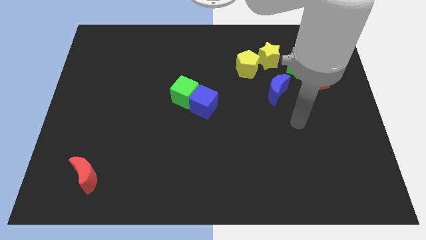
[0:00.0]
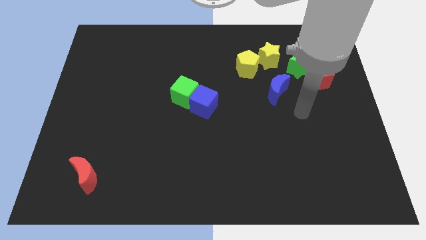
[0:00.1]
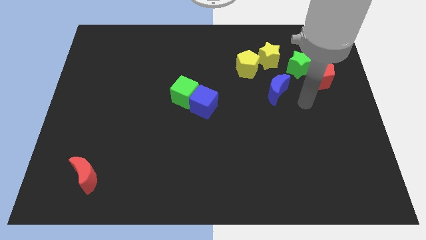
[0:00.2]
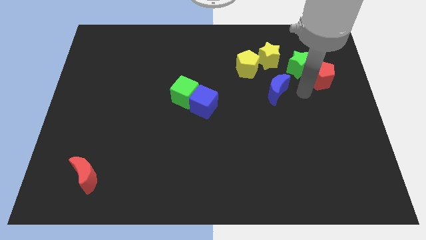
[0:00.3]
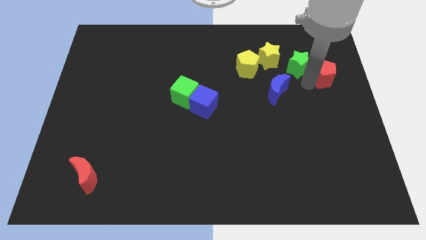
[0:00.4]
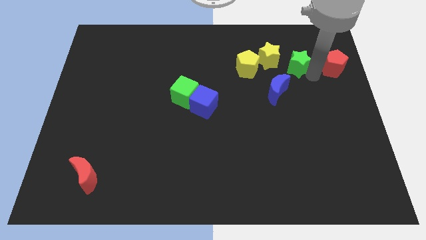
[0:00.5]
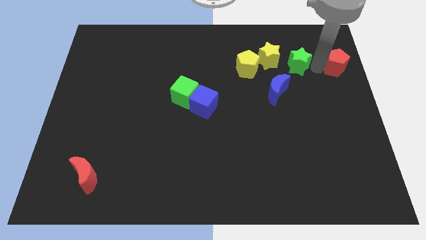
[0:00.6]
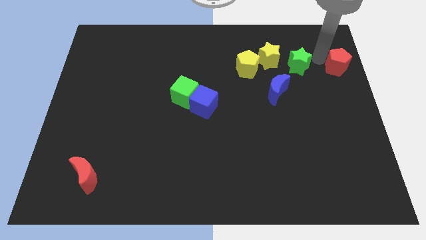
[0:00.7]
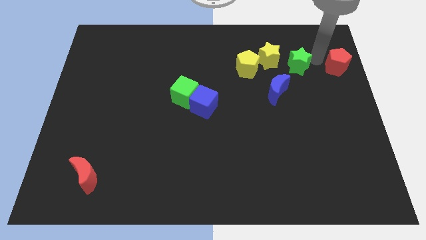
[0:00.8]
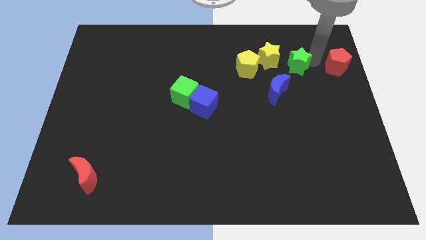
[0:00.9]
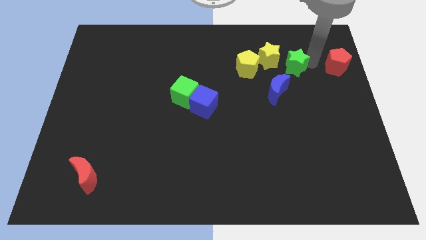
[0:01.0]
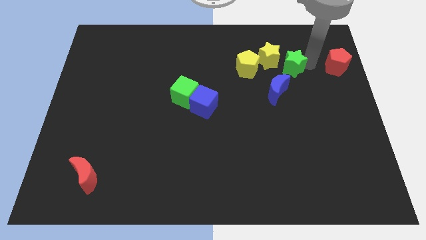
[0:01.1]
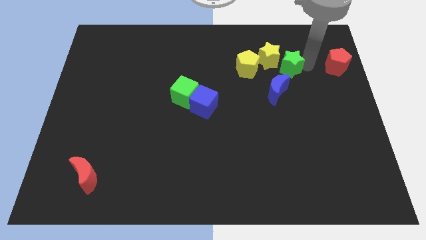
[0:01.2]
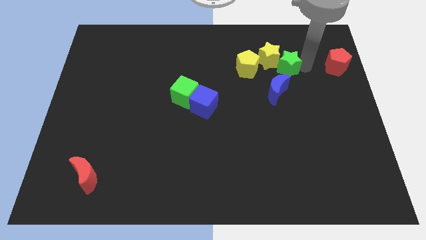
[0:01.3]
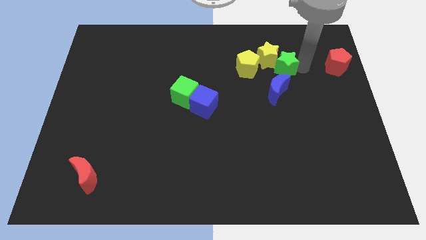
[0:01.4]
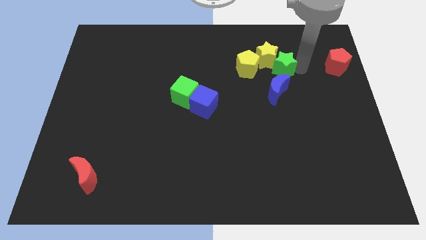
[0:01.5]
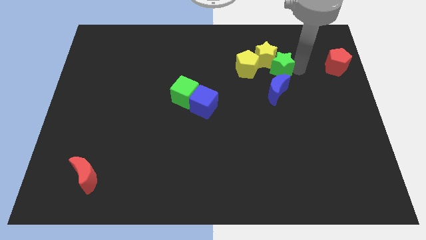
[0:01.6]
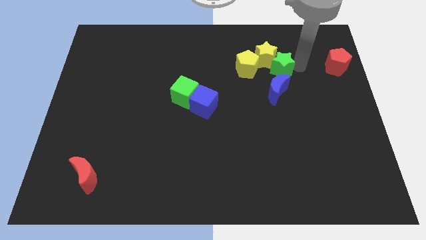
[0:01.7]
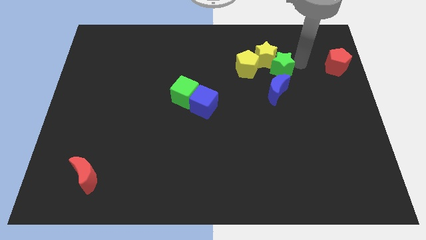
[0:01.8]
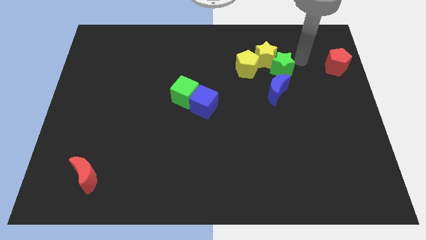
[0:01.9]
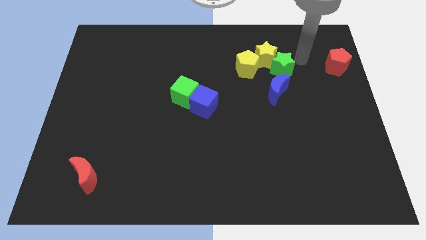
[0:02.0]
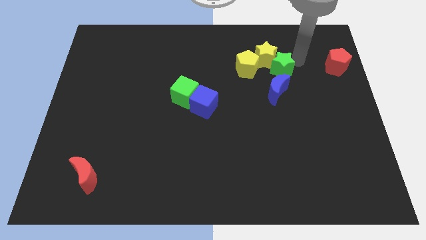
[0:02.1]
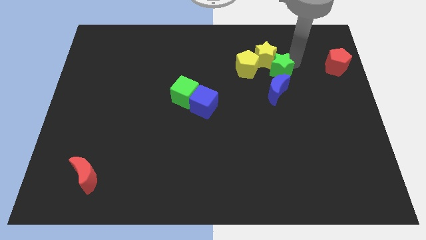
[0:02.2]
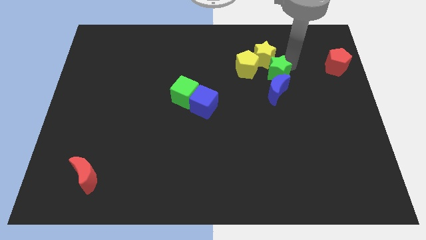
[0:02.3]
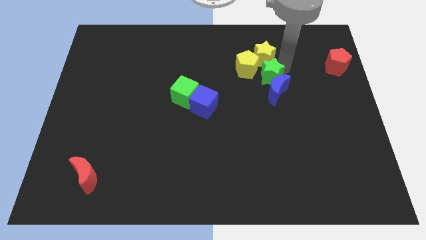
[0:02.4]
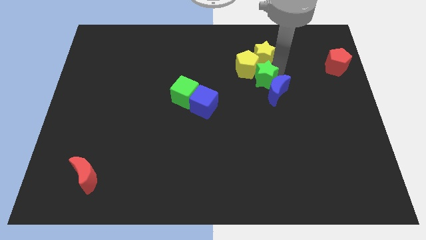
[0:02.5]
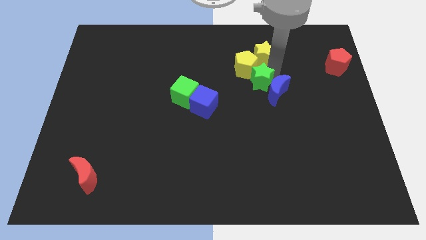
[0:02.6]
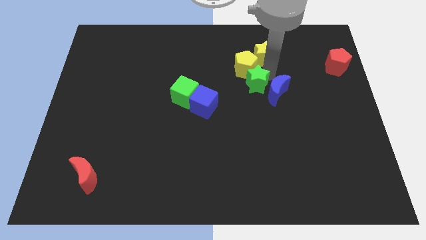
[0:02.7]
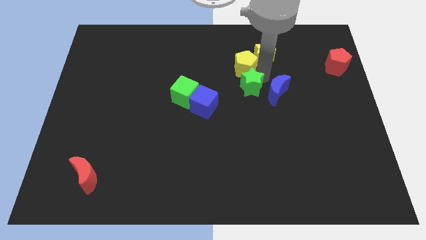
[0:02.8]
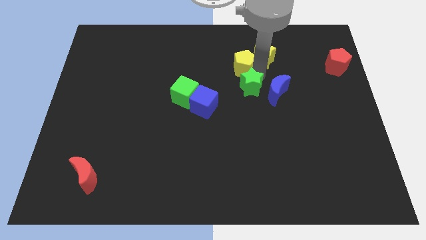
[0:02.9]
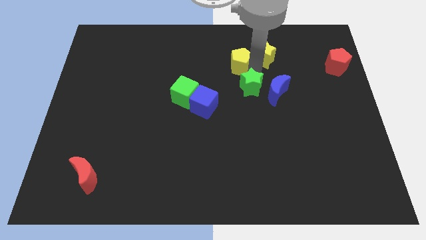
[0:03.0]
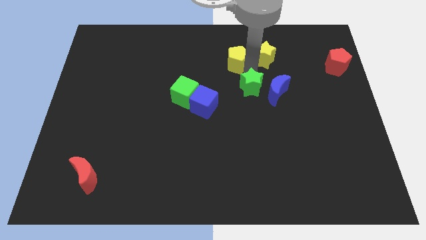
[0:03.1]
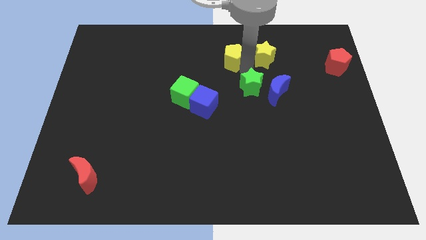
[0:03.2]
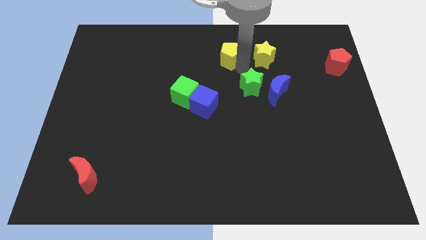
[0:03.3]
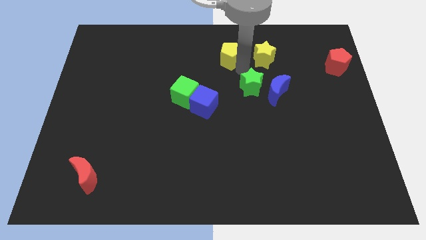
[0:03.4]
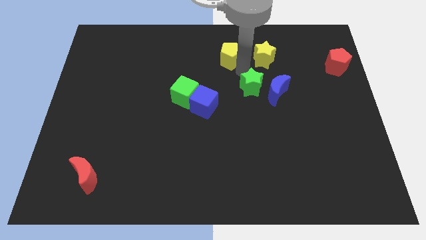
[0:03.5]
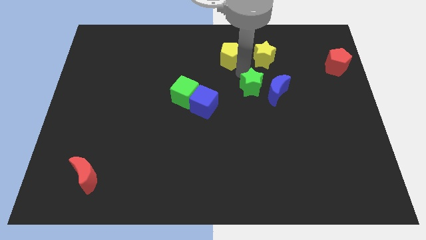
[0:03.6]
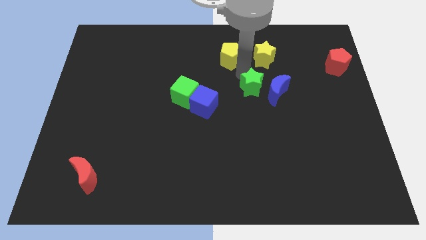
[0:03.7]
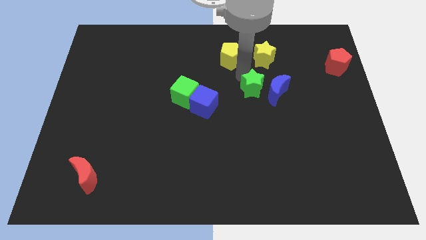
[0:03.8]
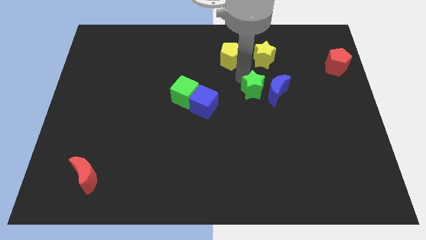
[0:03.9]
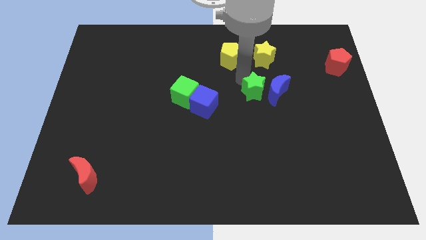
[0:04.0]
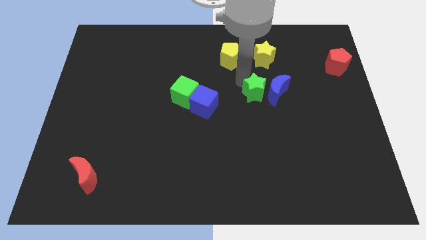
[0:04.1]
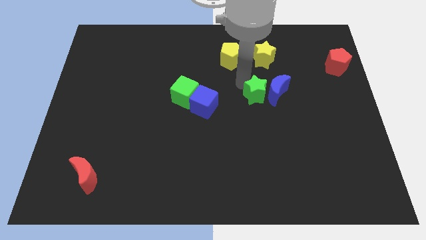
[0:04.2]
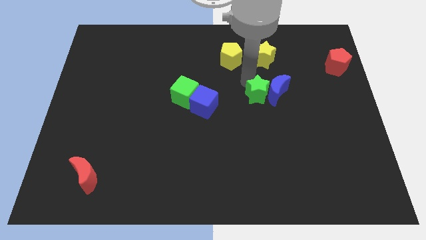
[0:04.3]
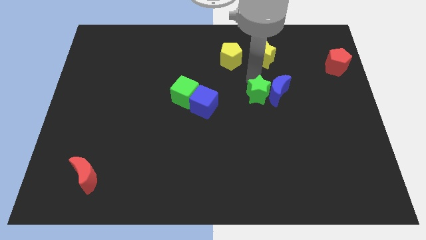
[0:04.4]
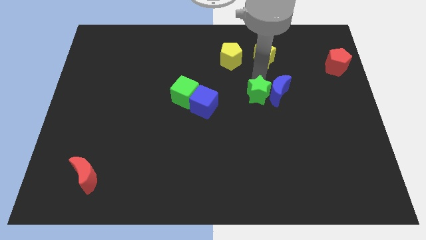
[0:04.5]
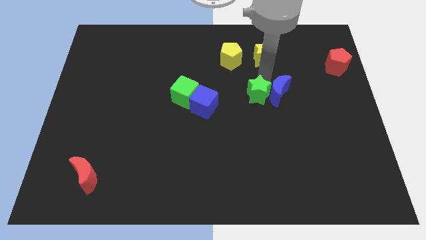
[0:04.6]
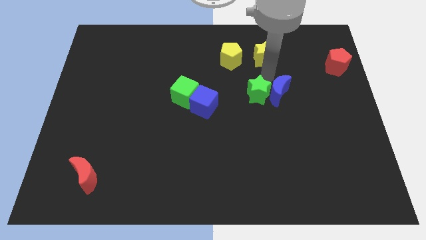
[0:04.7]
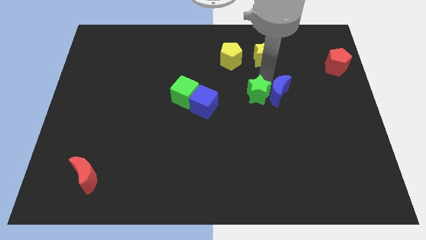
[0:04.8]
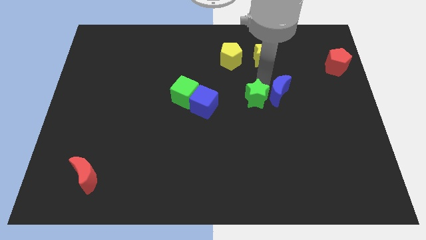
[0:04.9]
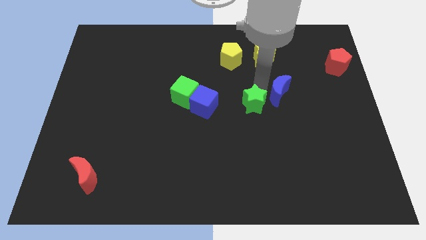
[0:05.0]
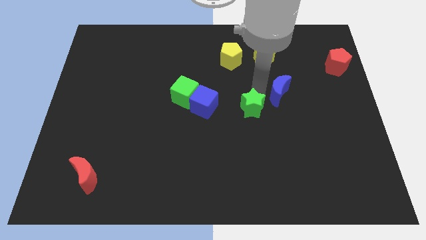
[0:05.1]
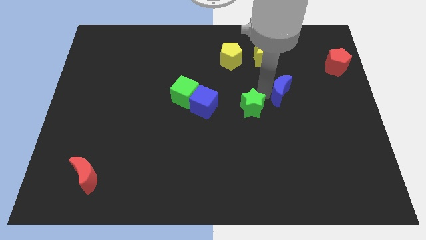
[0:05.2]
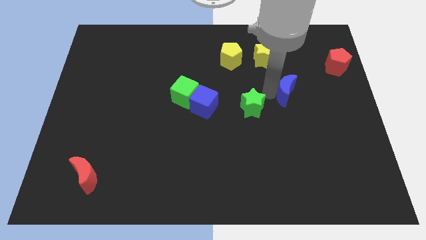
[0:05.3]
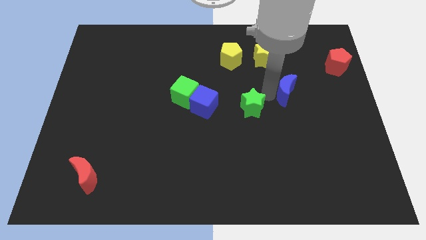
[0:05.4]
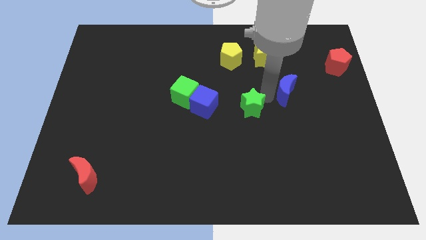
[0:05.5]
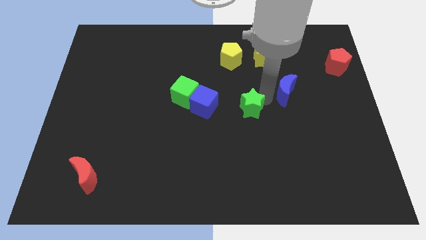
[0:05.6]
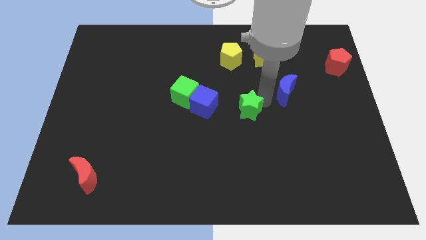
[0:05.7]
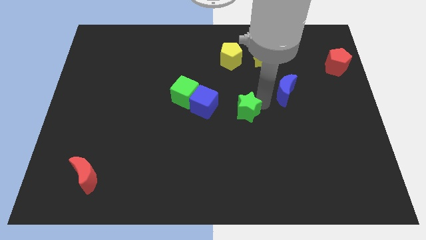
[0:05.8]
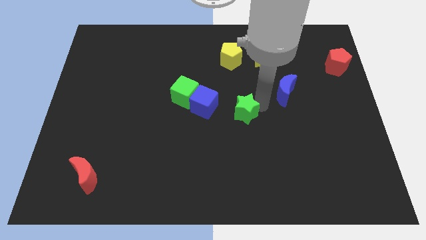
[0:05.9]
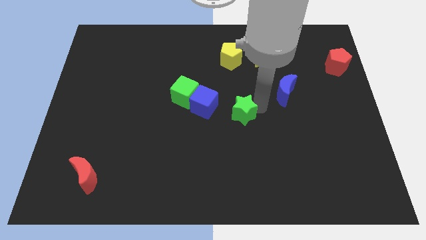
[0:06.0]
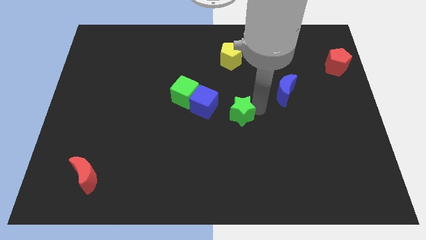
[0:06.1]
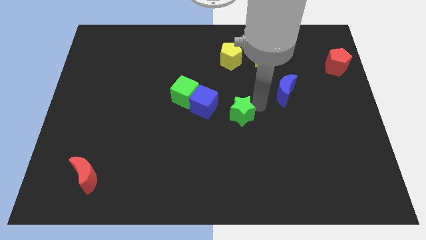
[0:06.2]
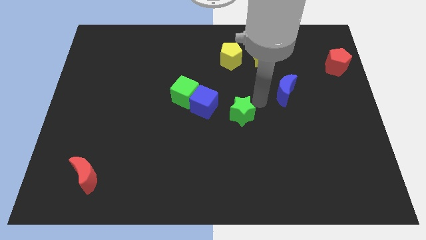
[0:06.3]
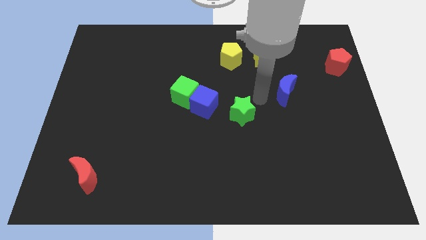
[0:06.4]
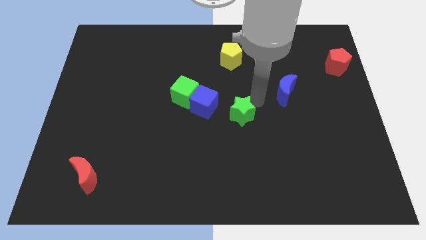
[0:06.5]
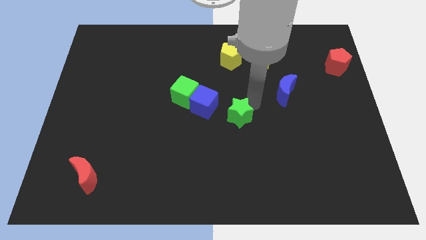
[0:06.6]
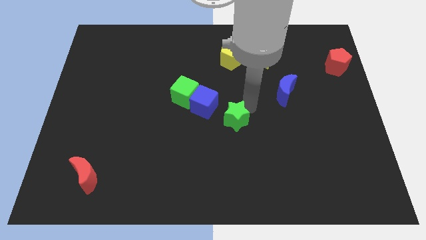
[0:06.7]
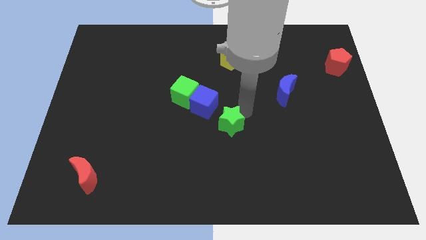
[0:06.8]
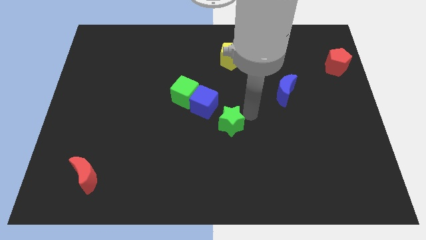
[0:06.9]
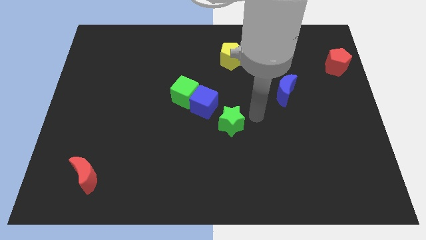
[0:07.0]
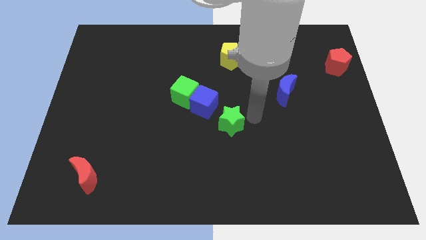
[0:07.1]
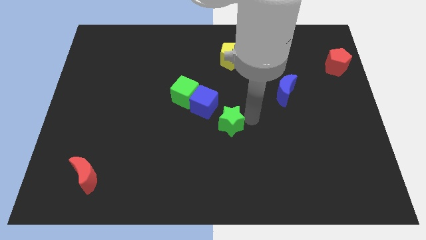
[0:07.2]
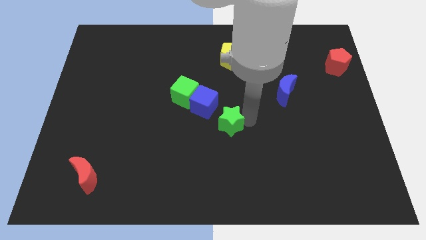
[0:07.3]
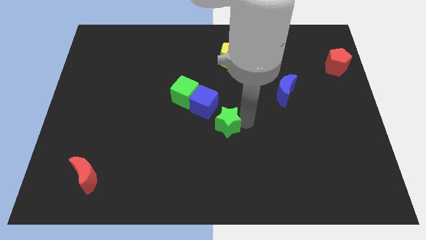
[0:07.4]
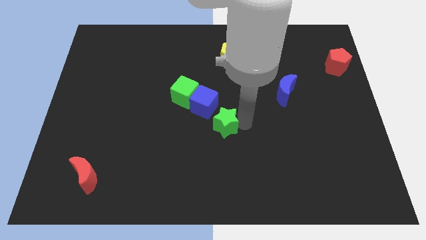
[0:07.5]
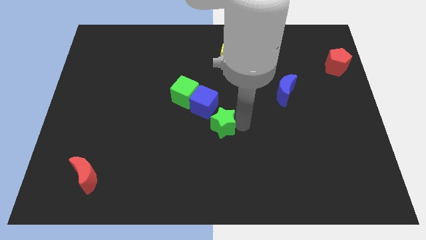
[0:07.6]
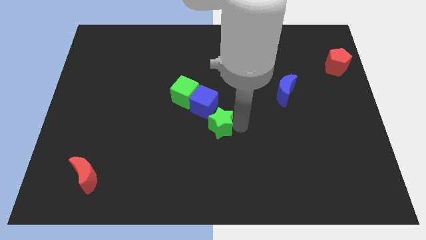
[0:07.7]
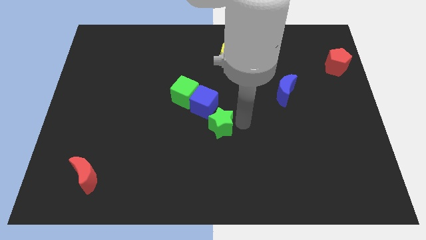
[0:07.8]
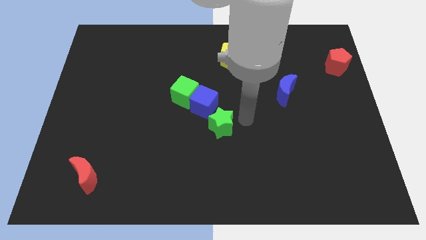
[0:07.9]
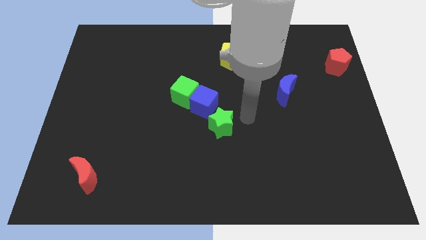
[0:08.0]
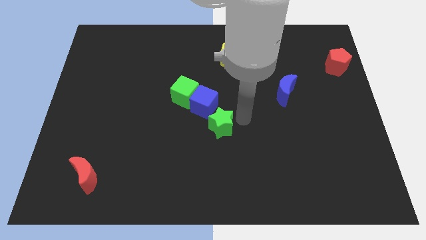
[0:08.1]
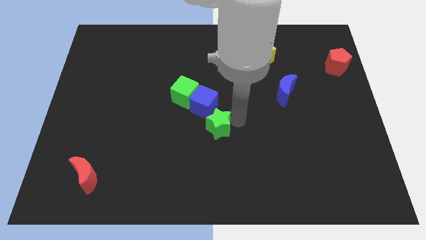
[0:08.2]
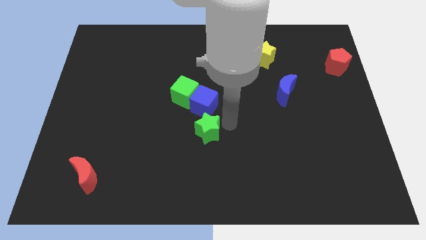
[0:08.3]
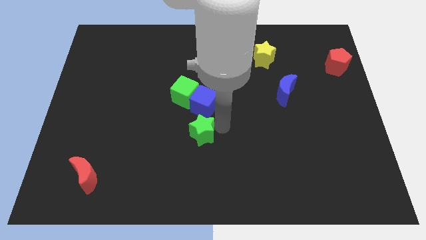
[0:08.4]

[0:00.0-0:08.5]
push the green star to the bottom of the green cube
